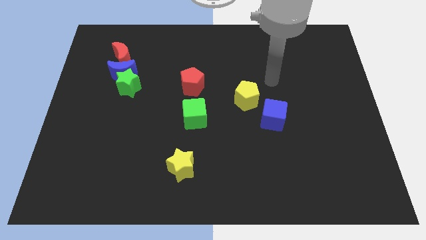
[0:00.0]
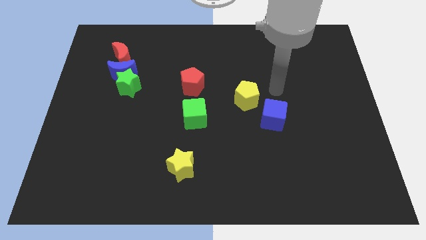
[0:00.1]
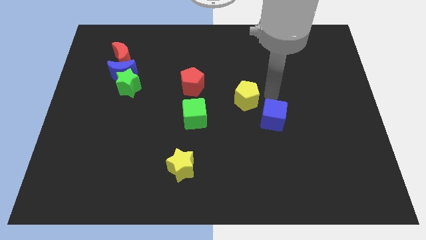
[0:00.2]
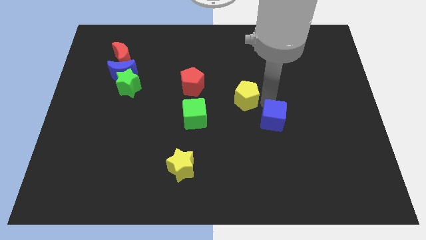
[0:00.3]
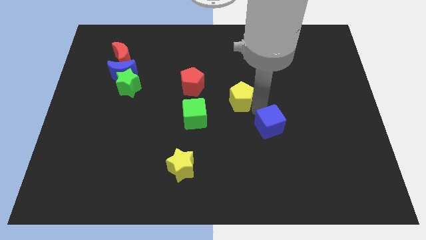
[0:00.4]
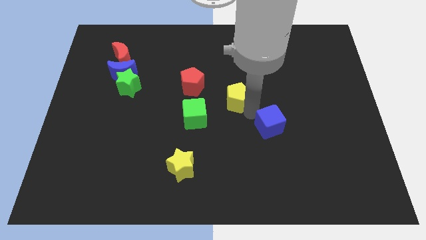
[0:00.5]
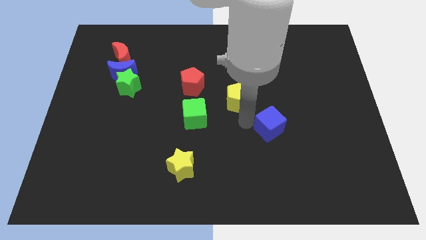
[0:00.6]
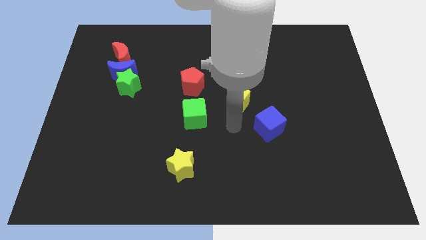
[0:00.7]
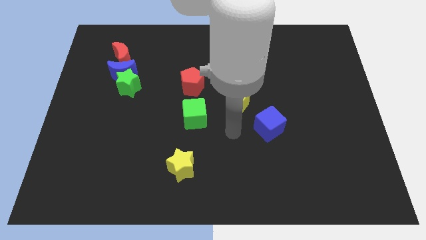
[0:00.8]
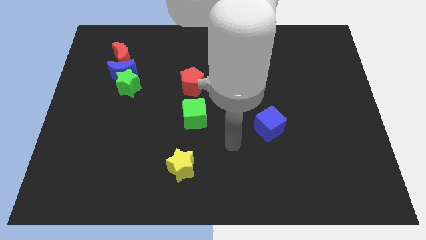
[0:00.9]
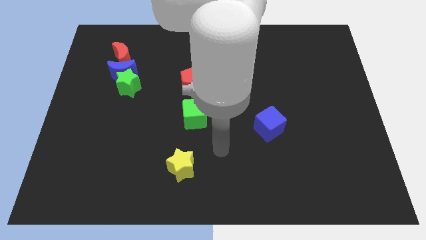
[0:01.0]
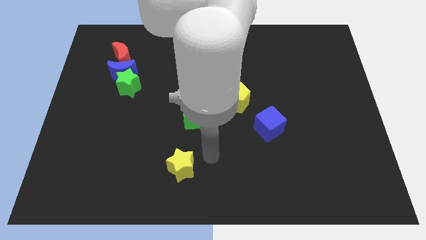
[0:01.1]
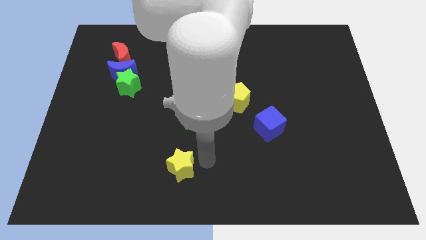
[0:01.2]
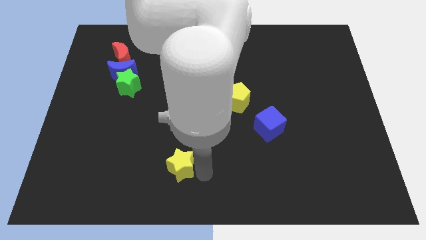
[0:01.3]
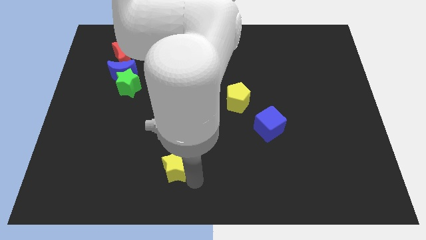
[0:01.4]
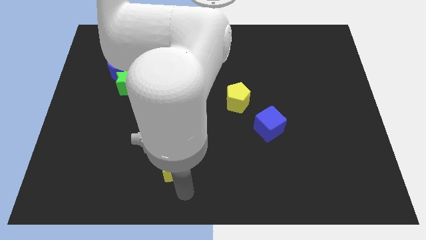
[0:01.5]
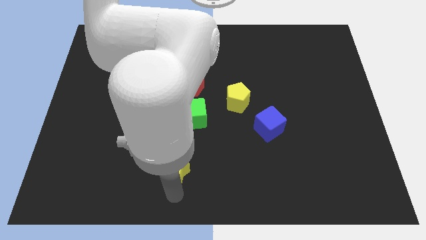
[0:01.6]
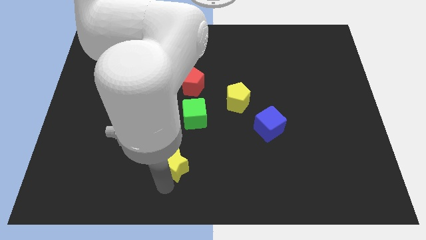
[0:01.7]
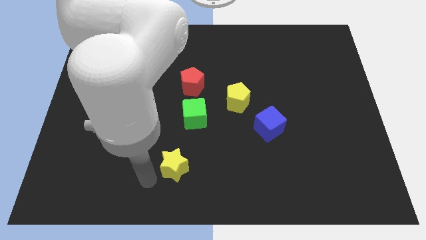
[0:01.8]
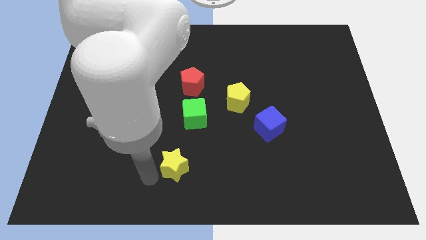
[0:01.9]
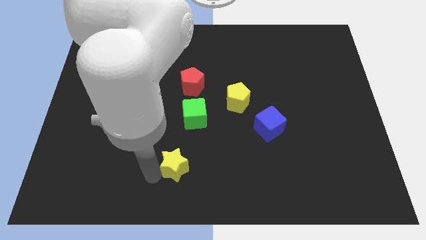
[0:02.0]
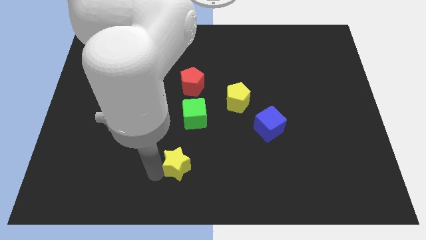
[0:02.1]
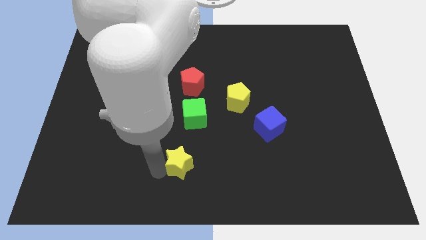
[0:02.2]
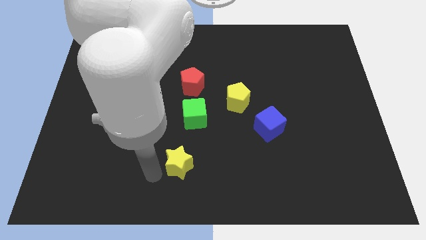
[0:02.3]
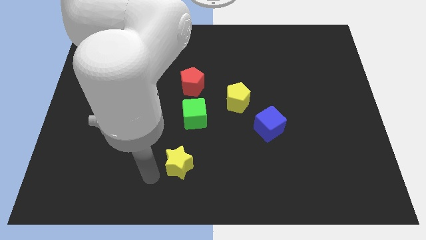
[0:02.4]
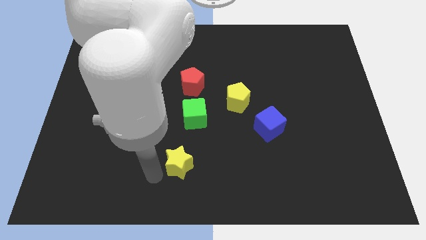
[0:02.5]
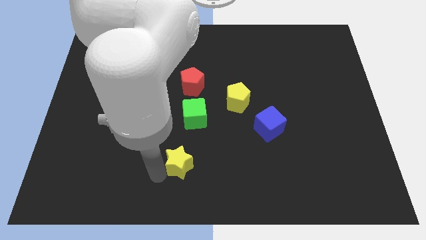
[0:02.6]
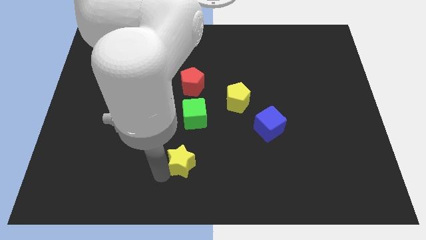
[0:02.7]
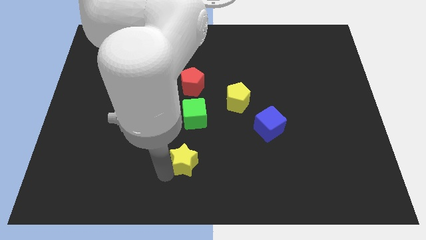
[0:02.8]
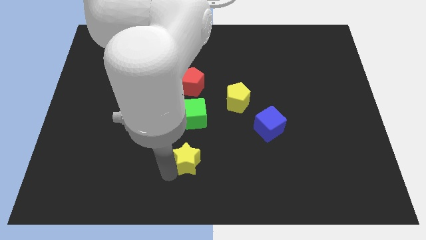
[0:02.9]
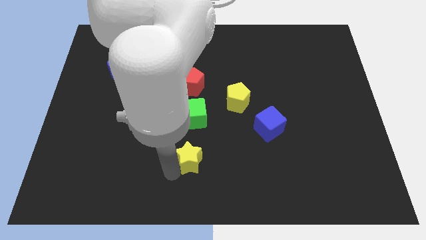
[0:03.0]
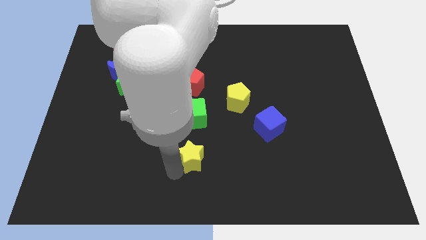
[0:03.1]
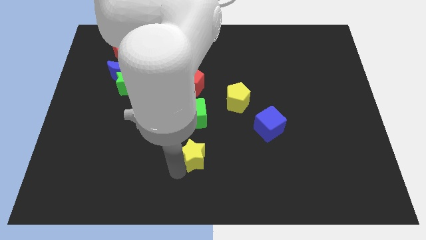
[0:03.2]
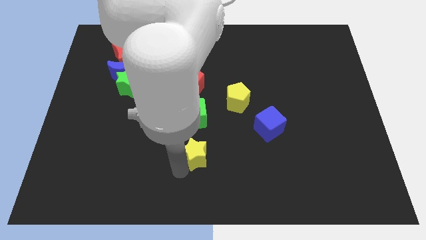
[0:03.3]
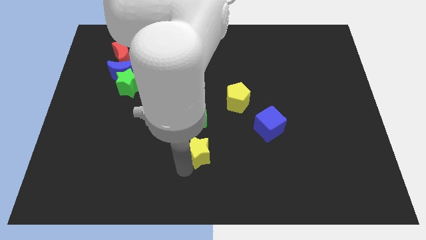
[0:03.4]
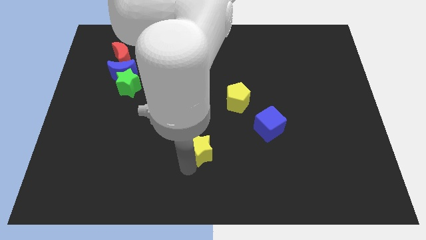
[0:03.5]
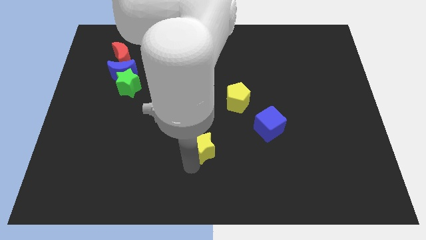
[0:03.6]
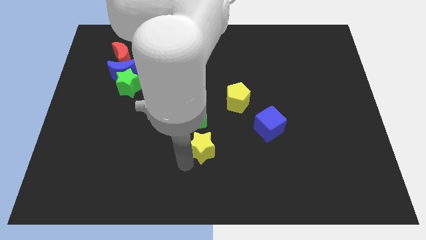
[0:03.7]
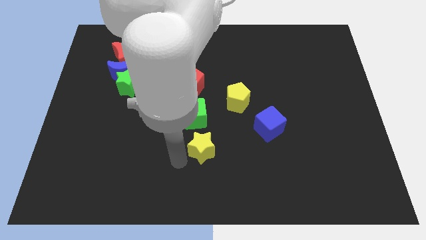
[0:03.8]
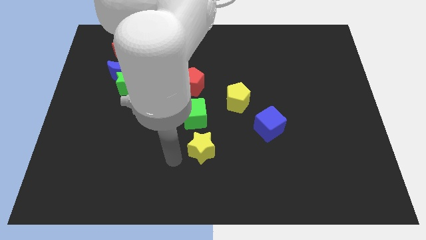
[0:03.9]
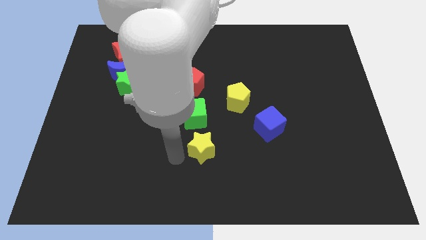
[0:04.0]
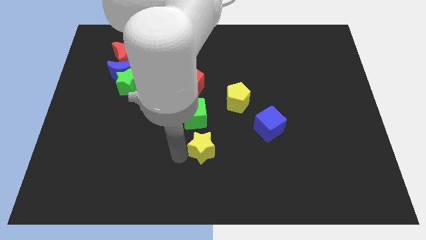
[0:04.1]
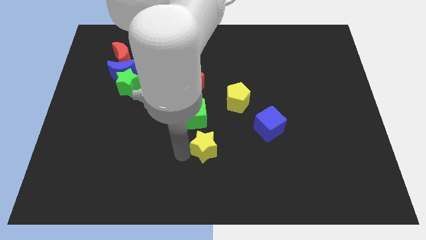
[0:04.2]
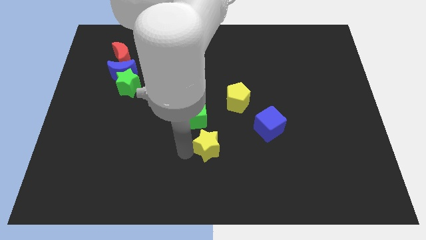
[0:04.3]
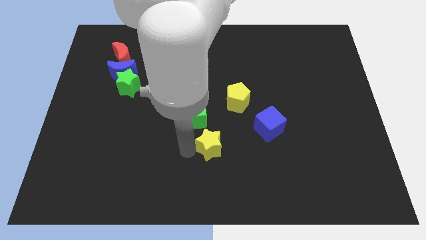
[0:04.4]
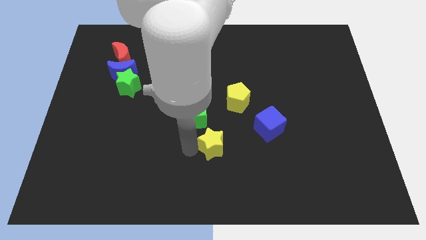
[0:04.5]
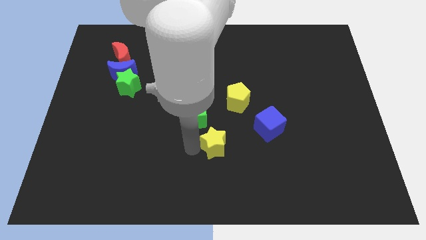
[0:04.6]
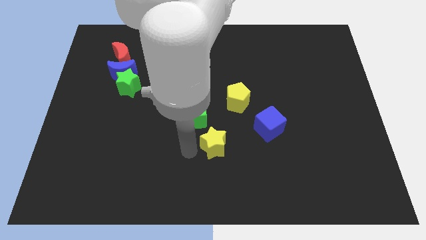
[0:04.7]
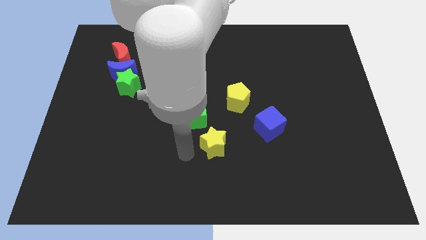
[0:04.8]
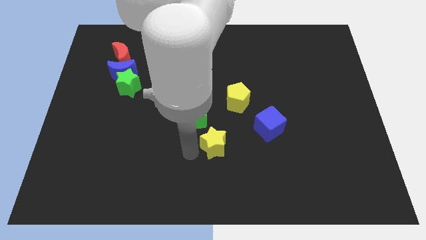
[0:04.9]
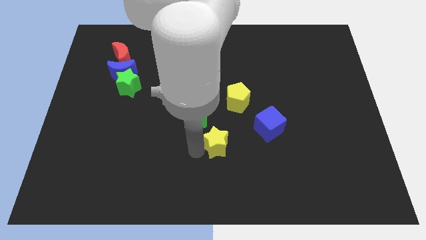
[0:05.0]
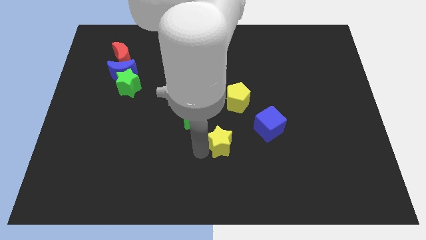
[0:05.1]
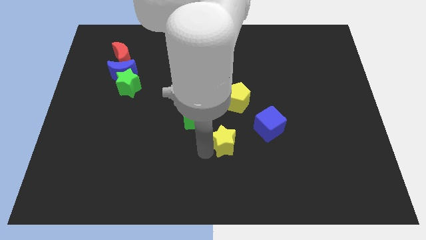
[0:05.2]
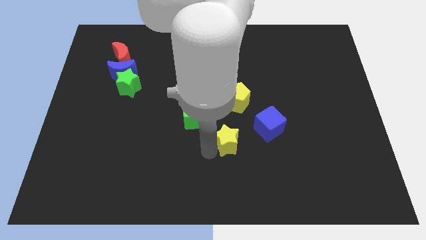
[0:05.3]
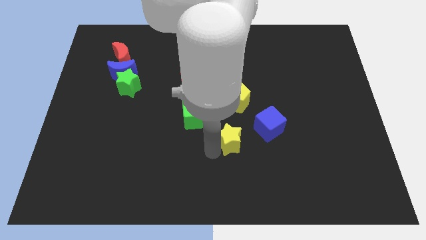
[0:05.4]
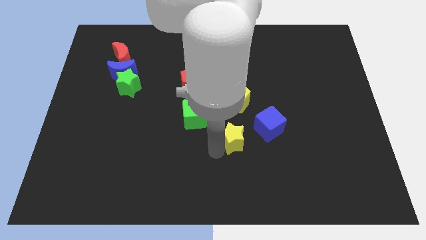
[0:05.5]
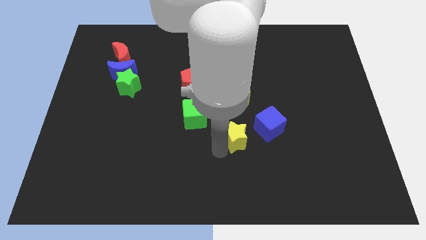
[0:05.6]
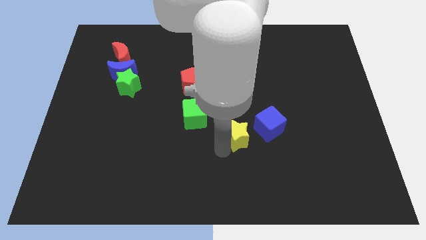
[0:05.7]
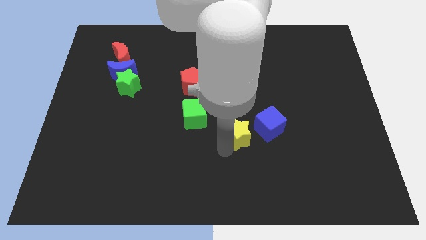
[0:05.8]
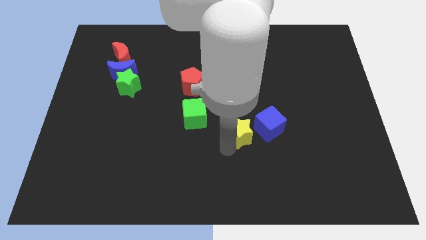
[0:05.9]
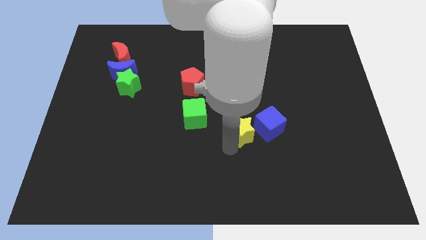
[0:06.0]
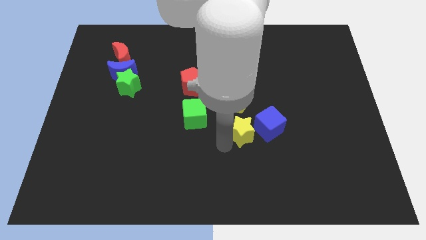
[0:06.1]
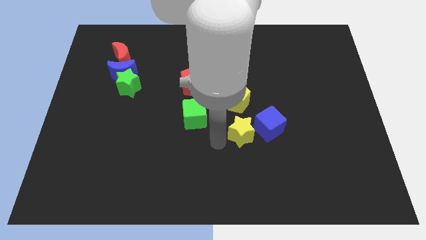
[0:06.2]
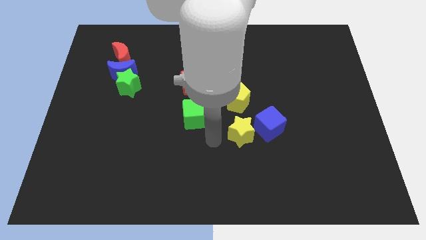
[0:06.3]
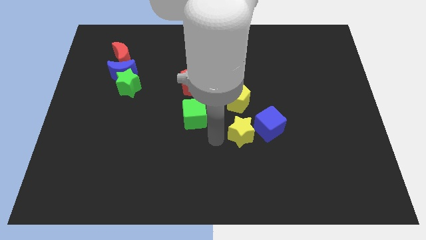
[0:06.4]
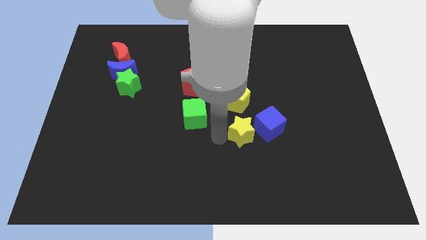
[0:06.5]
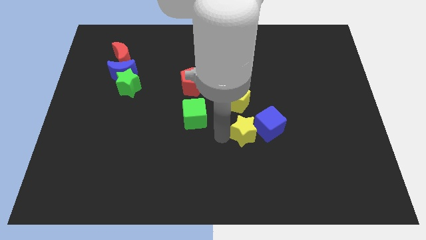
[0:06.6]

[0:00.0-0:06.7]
slide the yellow star next to the blue cube

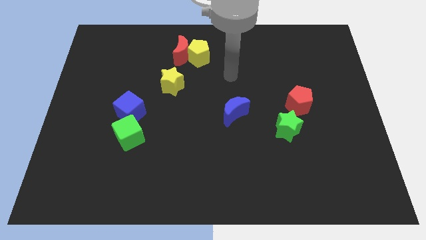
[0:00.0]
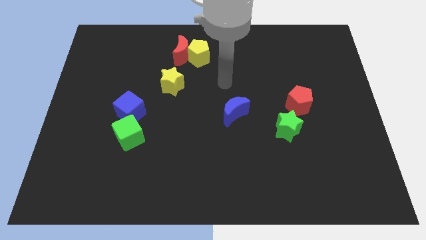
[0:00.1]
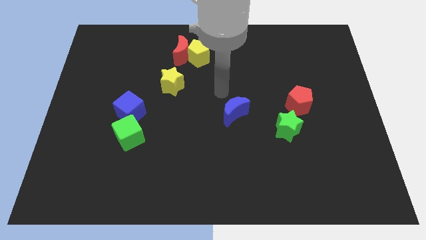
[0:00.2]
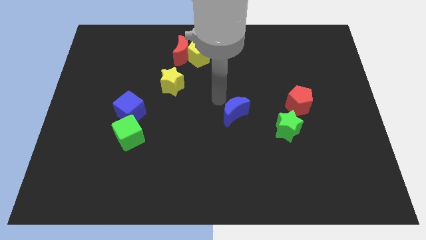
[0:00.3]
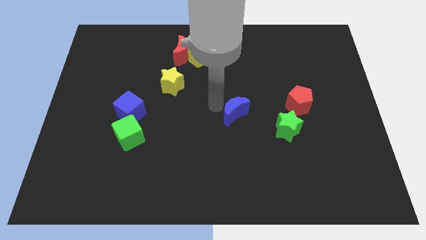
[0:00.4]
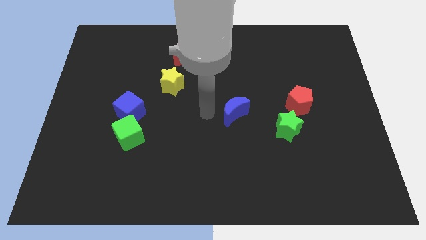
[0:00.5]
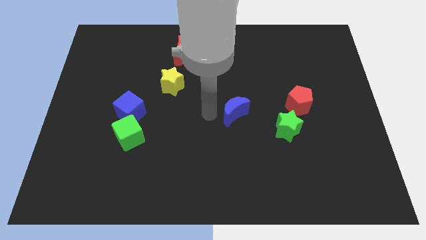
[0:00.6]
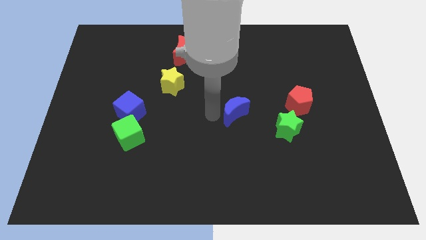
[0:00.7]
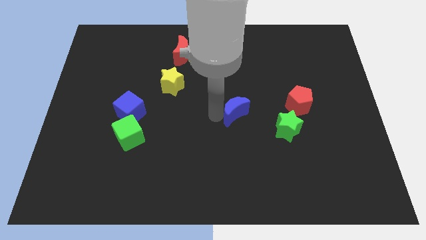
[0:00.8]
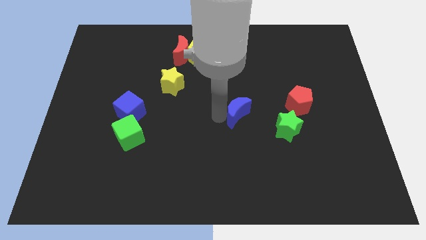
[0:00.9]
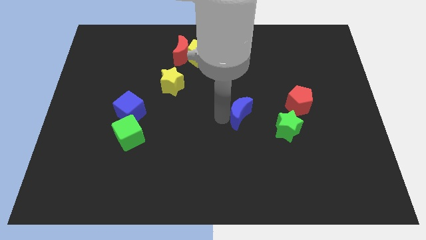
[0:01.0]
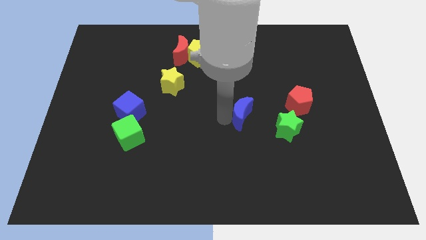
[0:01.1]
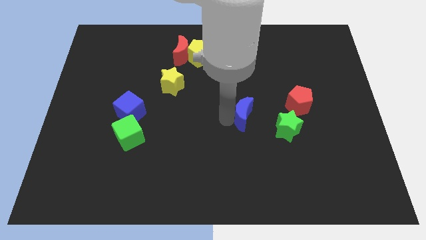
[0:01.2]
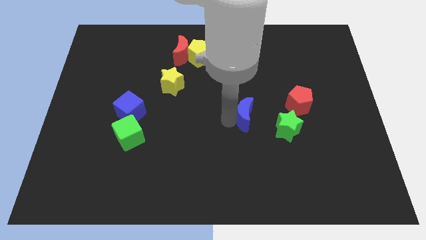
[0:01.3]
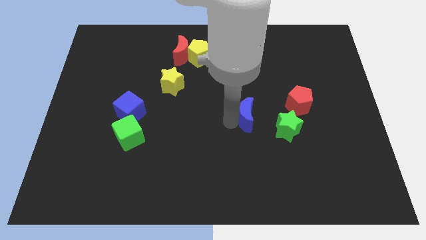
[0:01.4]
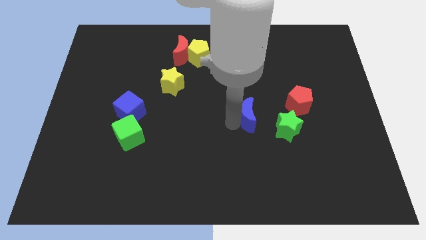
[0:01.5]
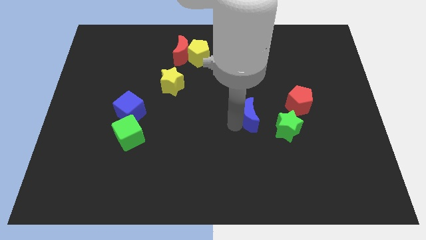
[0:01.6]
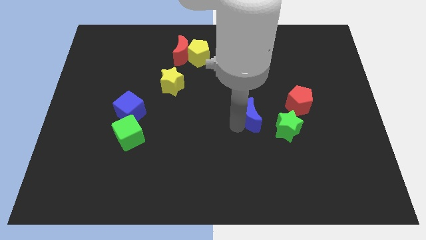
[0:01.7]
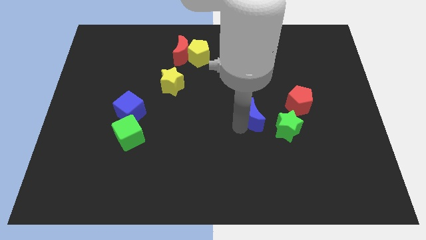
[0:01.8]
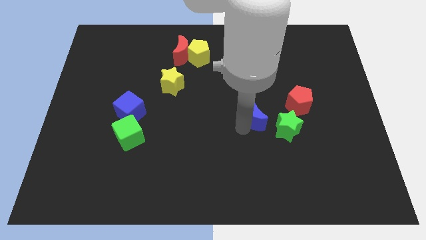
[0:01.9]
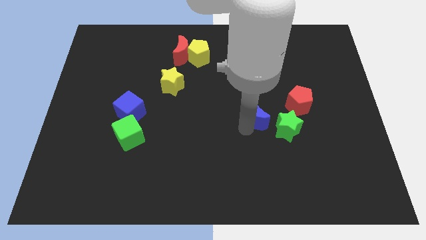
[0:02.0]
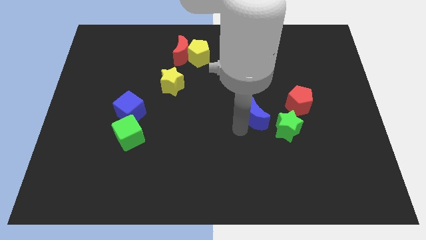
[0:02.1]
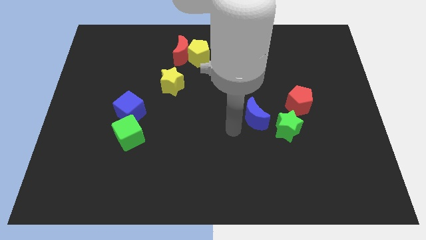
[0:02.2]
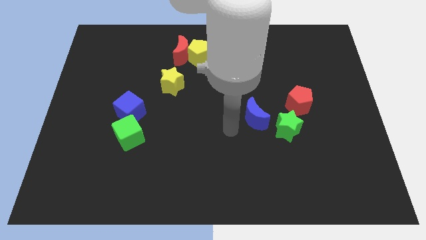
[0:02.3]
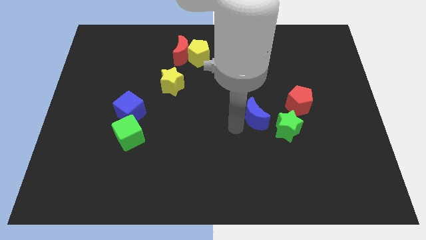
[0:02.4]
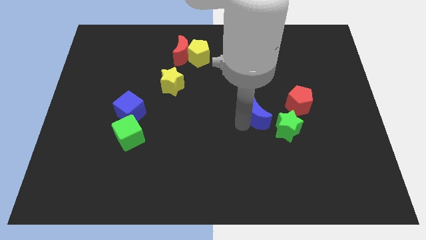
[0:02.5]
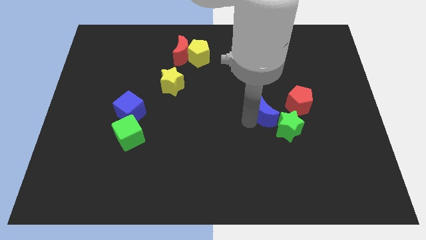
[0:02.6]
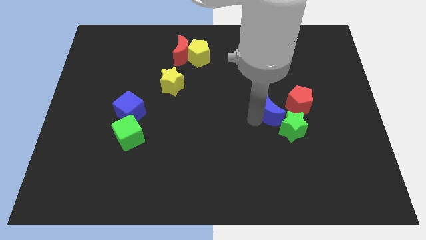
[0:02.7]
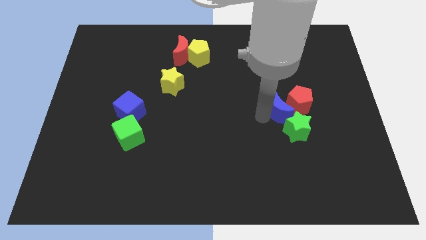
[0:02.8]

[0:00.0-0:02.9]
push the blue moon next to the red pentagon
